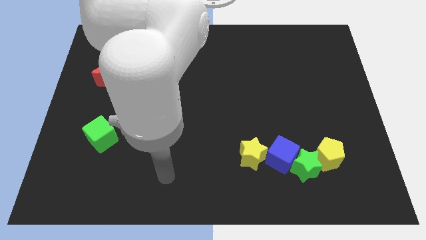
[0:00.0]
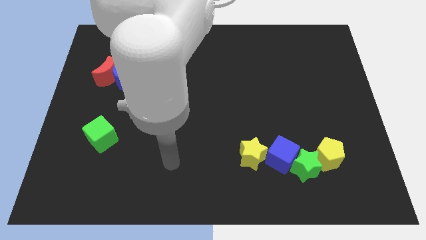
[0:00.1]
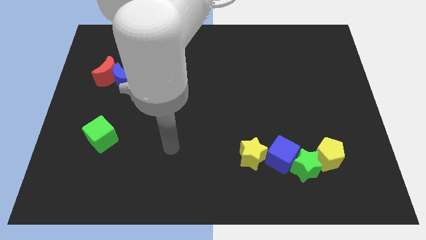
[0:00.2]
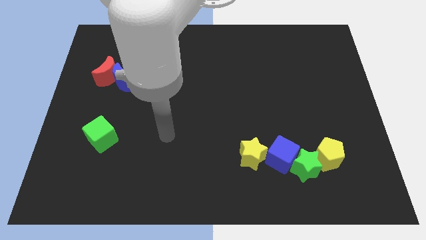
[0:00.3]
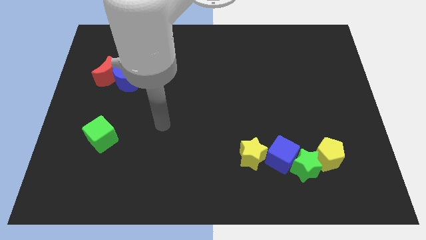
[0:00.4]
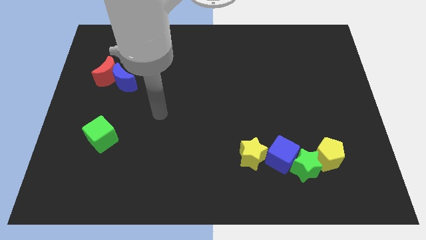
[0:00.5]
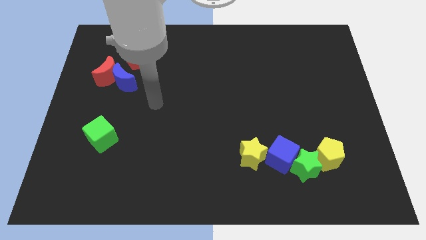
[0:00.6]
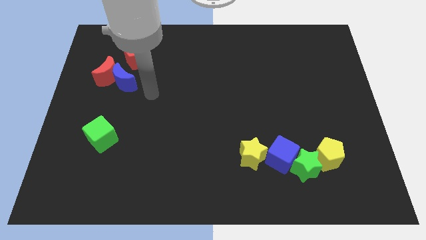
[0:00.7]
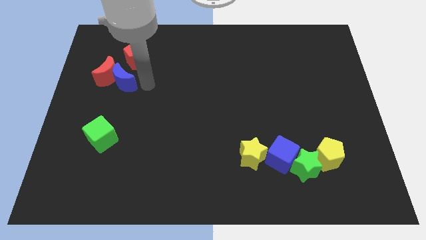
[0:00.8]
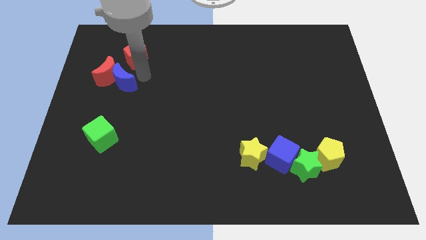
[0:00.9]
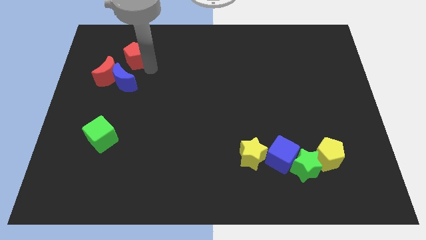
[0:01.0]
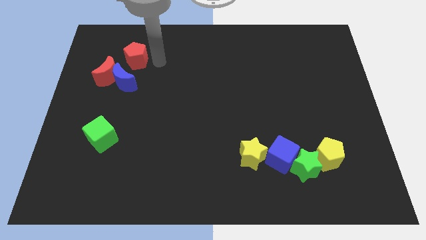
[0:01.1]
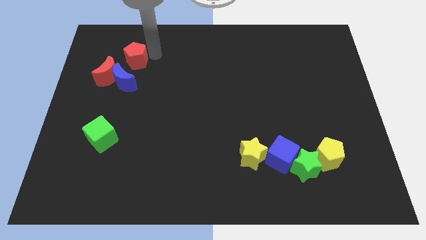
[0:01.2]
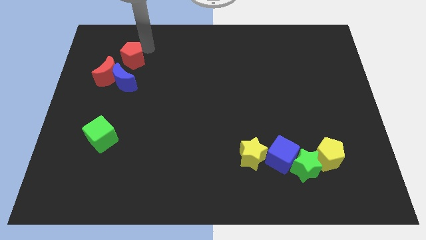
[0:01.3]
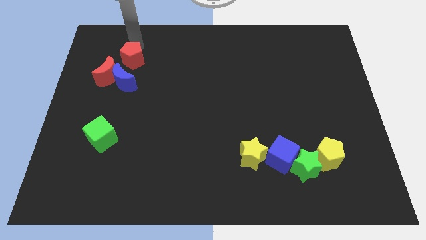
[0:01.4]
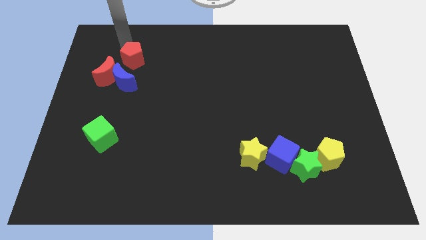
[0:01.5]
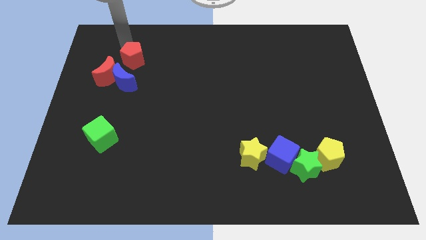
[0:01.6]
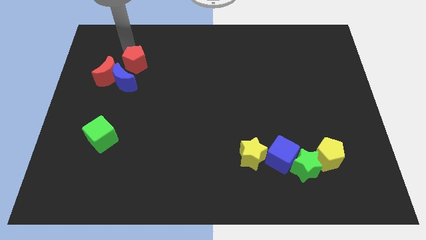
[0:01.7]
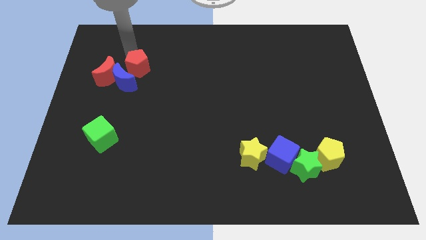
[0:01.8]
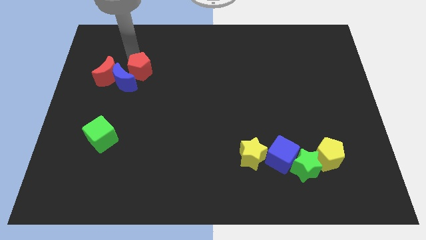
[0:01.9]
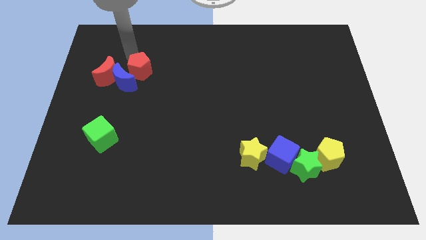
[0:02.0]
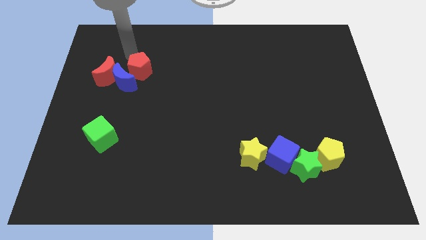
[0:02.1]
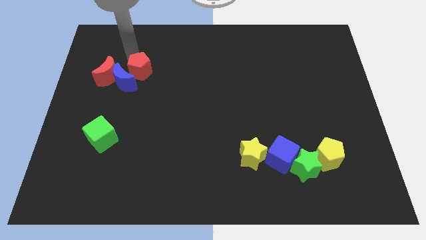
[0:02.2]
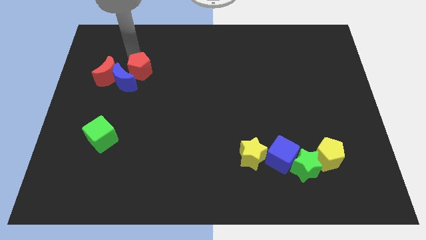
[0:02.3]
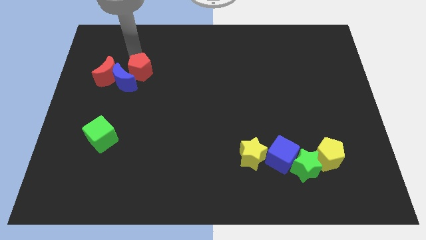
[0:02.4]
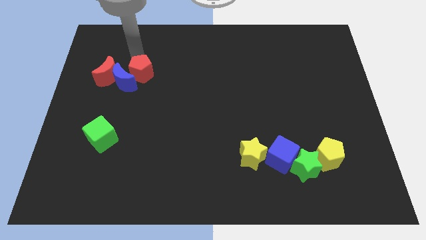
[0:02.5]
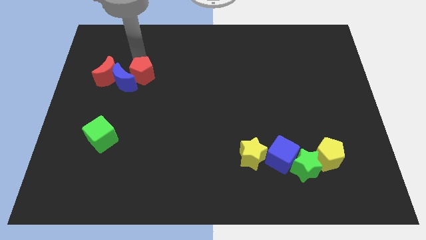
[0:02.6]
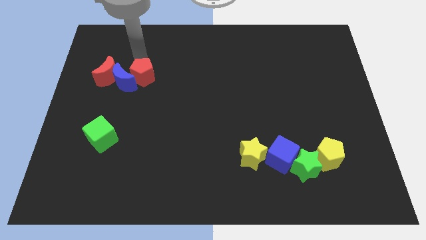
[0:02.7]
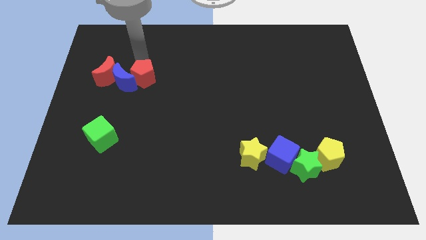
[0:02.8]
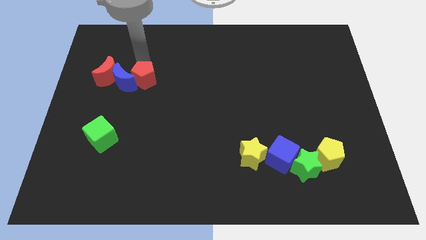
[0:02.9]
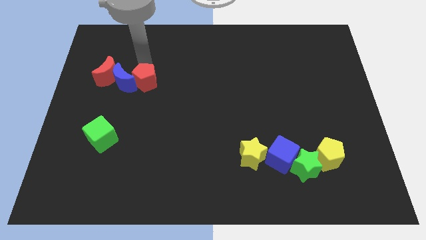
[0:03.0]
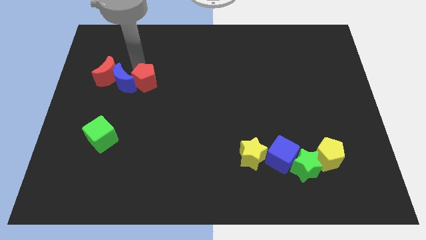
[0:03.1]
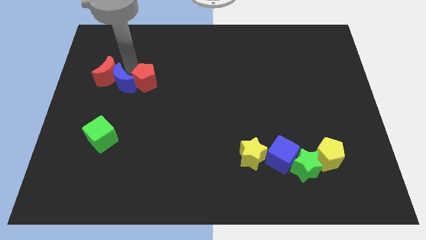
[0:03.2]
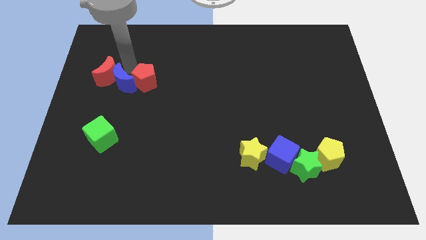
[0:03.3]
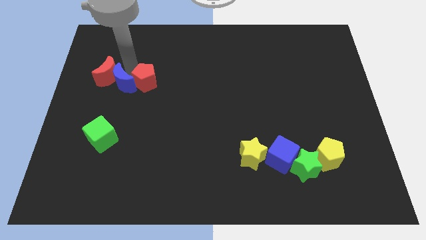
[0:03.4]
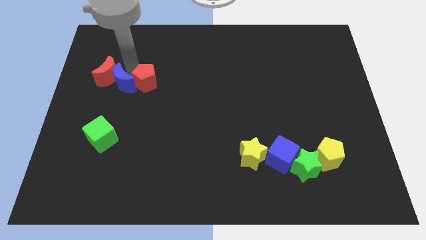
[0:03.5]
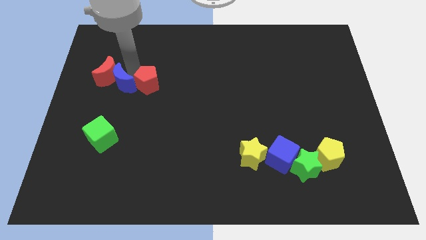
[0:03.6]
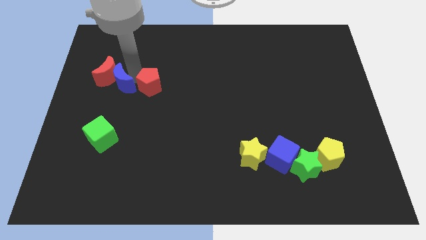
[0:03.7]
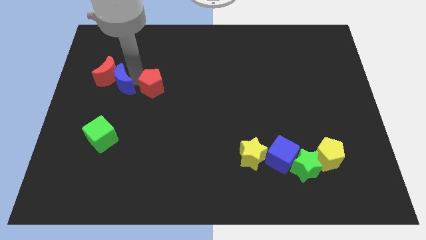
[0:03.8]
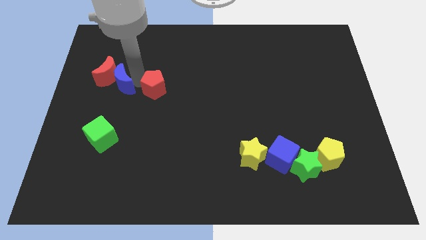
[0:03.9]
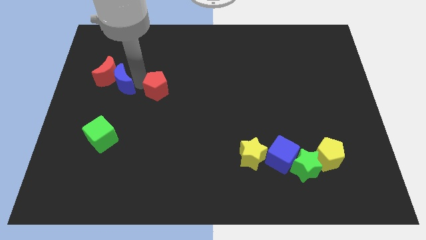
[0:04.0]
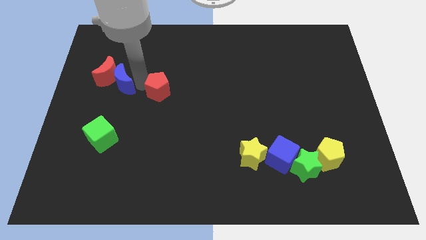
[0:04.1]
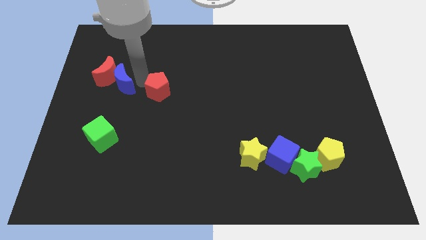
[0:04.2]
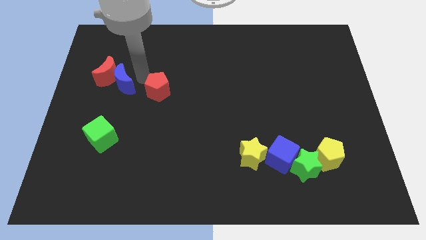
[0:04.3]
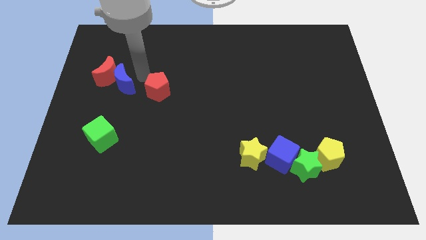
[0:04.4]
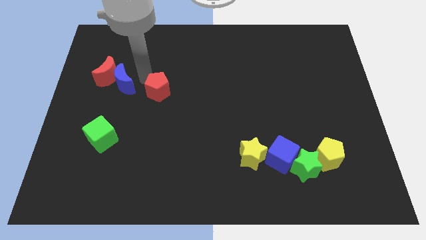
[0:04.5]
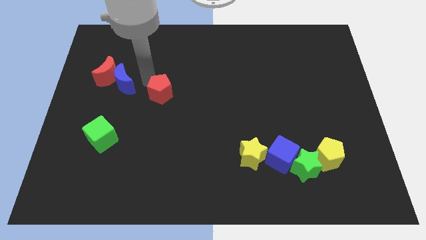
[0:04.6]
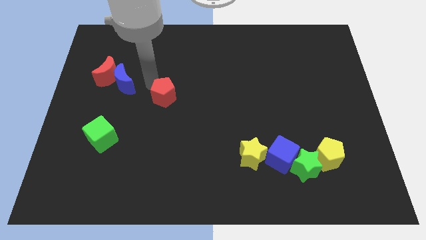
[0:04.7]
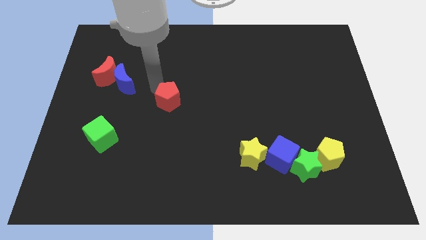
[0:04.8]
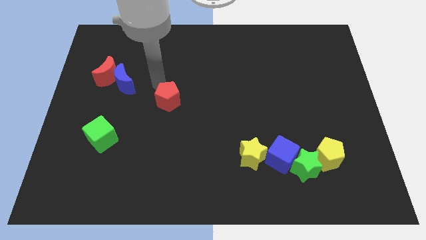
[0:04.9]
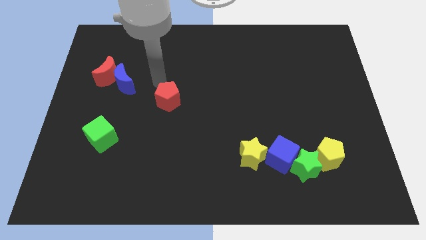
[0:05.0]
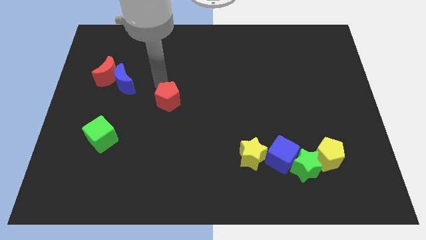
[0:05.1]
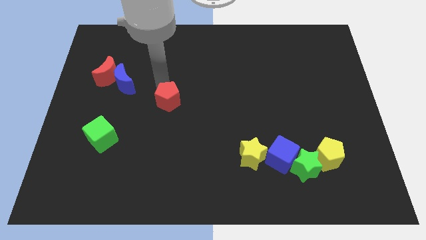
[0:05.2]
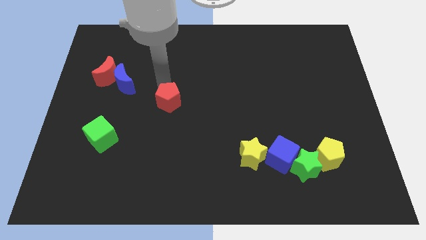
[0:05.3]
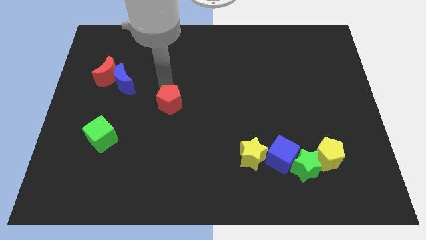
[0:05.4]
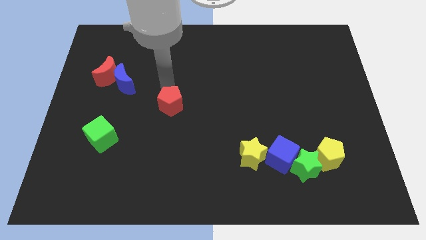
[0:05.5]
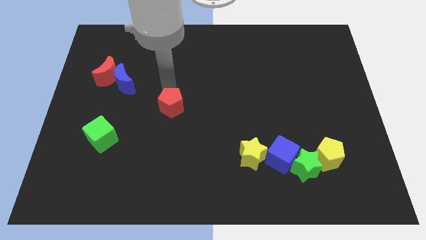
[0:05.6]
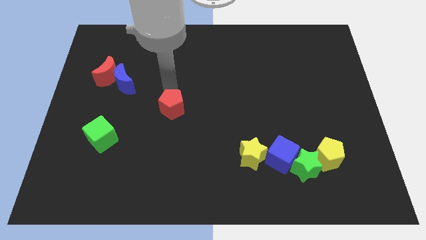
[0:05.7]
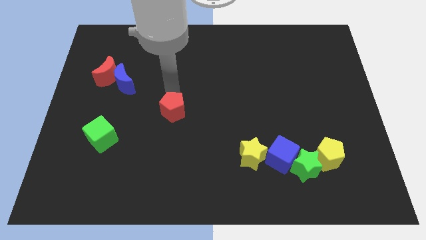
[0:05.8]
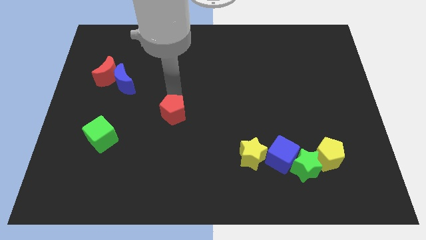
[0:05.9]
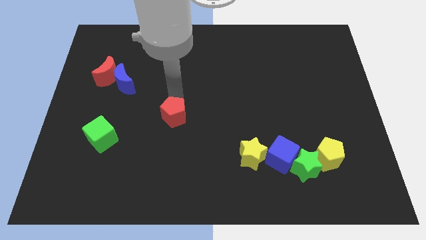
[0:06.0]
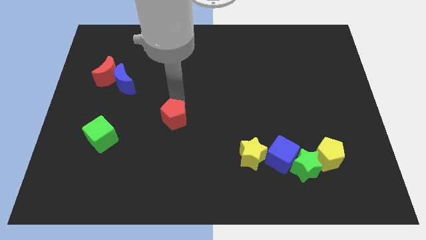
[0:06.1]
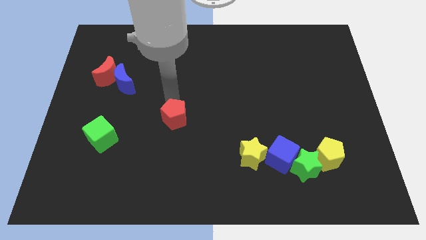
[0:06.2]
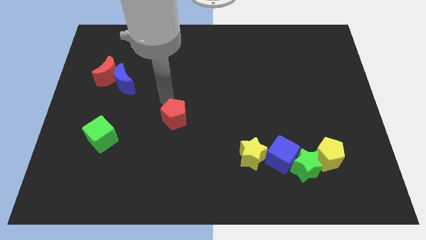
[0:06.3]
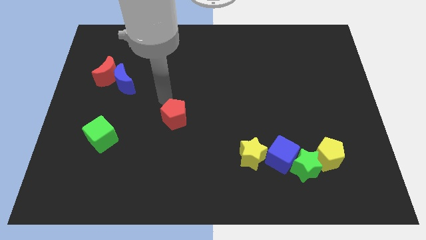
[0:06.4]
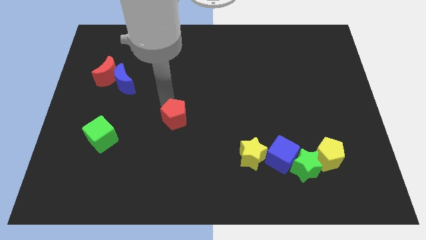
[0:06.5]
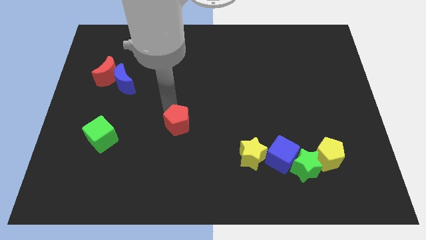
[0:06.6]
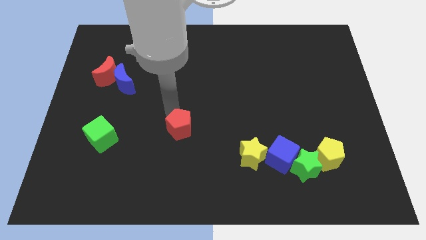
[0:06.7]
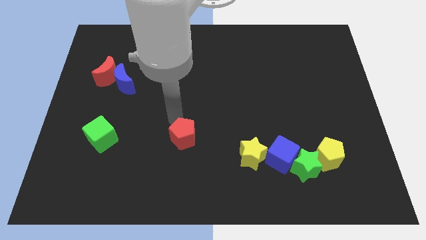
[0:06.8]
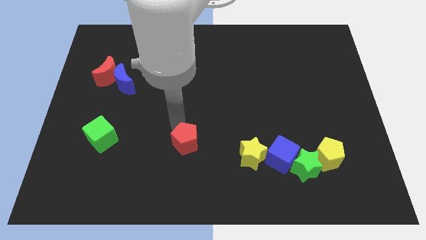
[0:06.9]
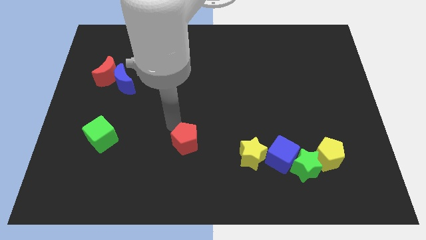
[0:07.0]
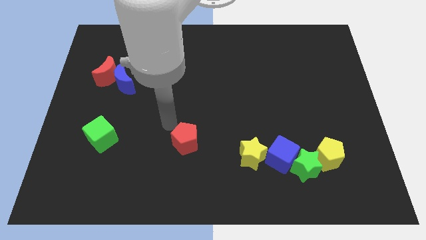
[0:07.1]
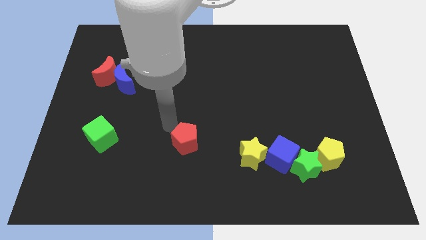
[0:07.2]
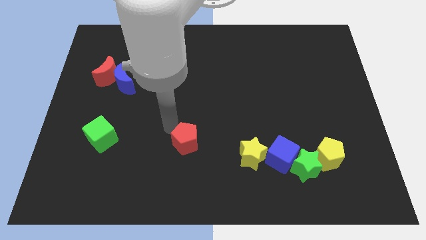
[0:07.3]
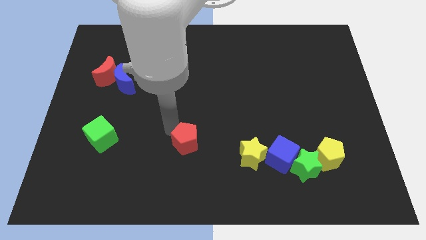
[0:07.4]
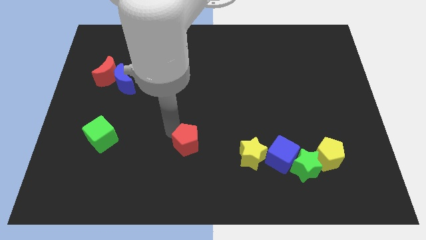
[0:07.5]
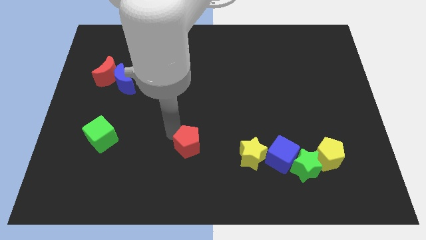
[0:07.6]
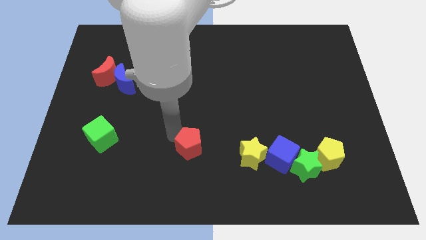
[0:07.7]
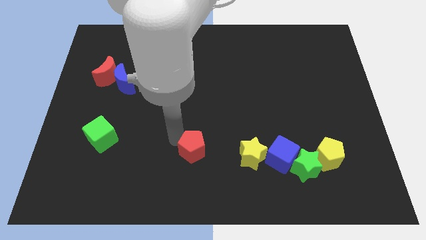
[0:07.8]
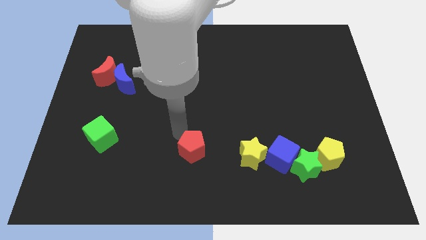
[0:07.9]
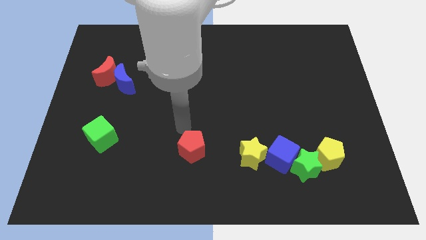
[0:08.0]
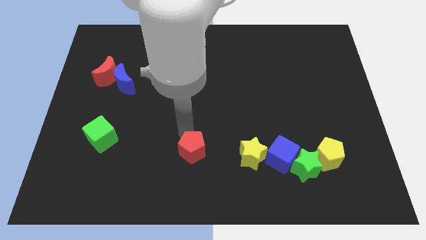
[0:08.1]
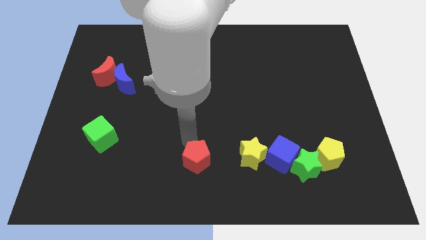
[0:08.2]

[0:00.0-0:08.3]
push the red pentagon to the bottom
